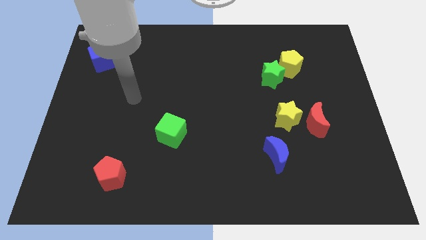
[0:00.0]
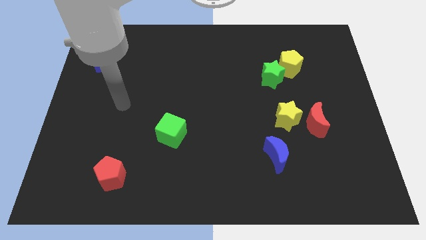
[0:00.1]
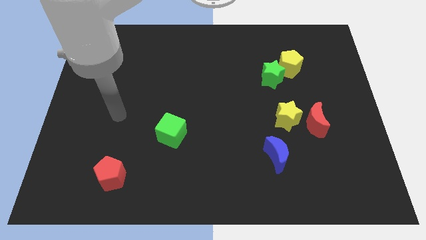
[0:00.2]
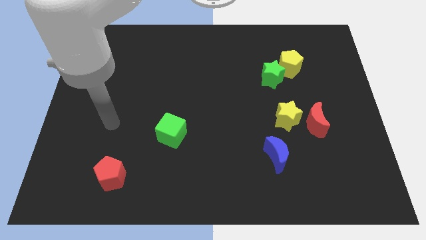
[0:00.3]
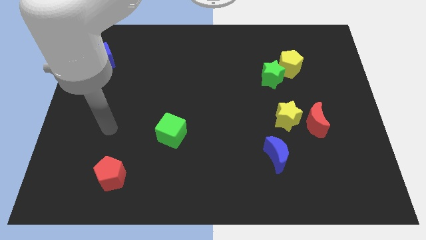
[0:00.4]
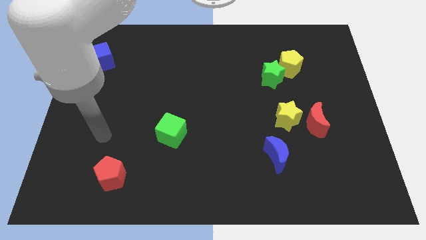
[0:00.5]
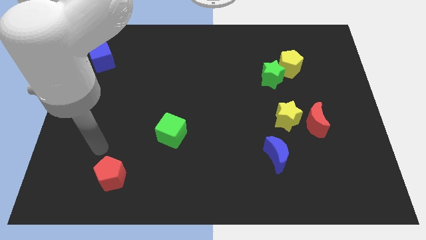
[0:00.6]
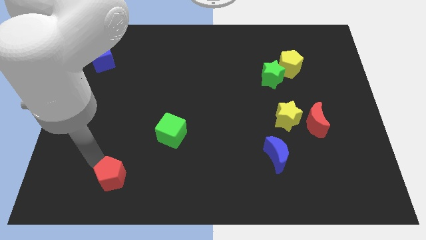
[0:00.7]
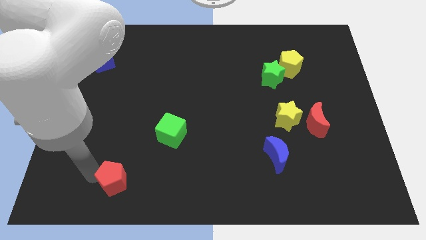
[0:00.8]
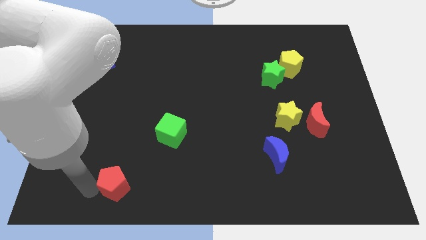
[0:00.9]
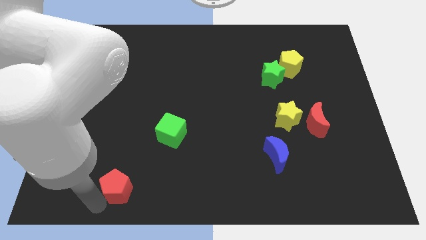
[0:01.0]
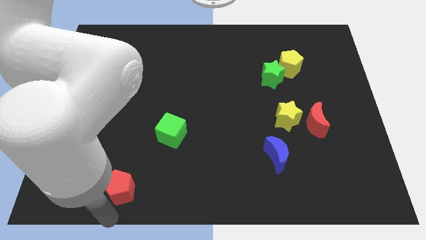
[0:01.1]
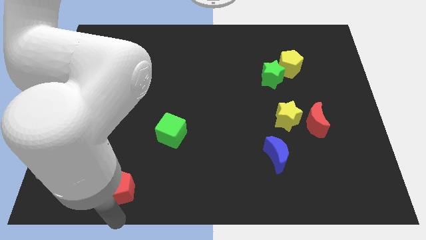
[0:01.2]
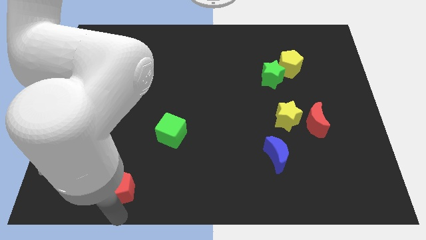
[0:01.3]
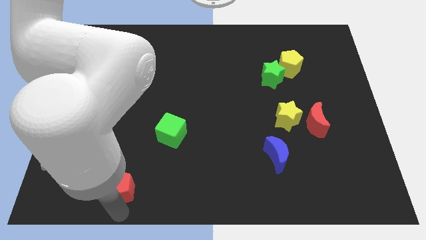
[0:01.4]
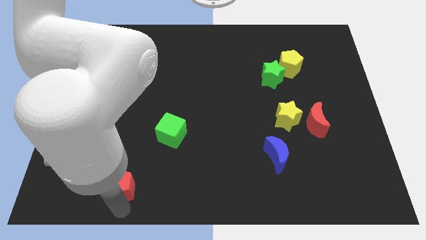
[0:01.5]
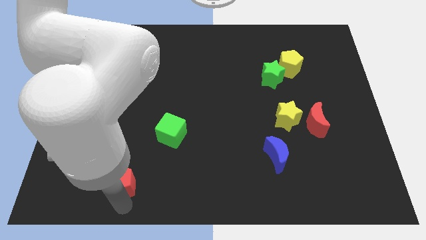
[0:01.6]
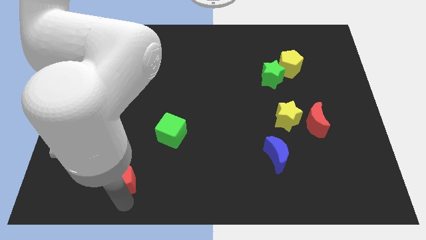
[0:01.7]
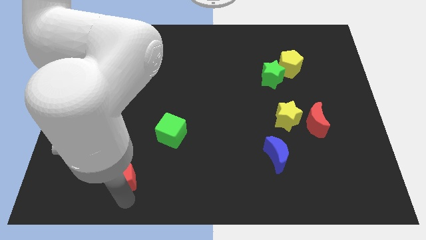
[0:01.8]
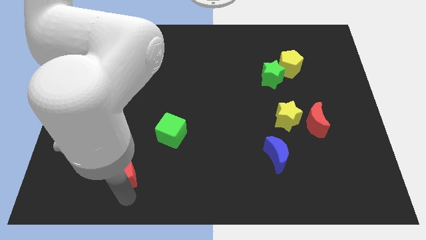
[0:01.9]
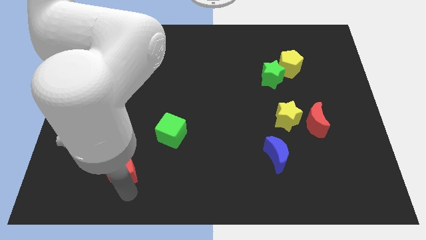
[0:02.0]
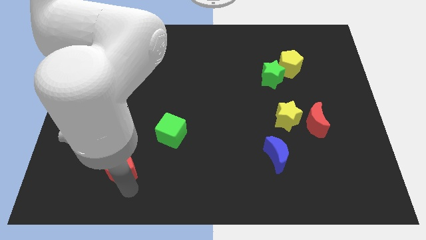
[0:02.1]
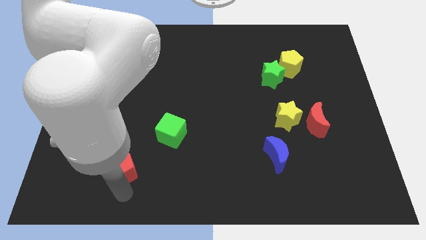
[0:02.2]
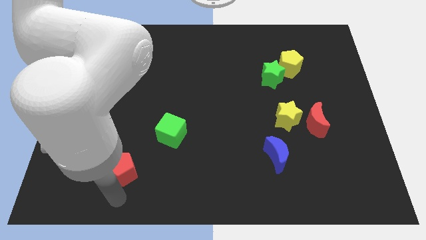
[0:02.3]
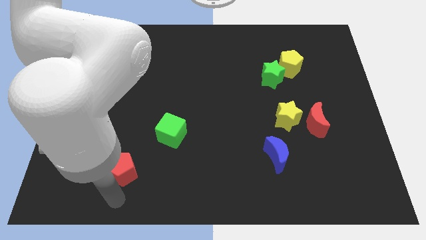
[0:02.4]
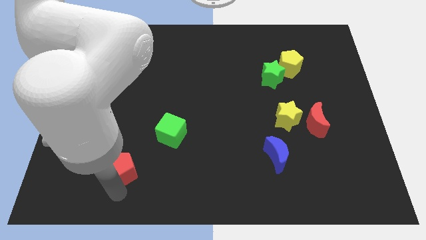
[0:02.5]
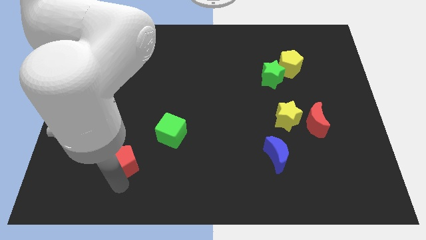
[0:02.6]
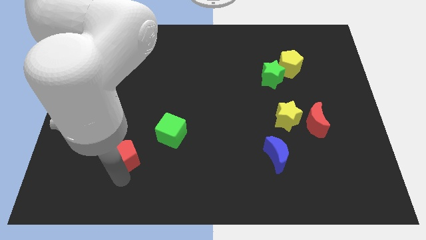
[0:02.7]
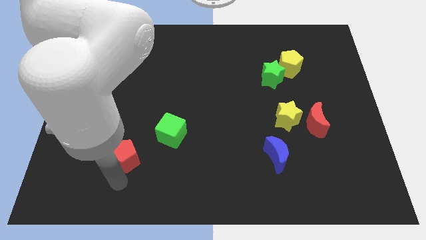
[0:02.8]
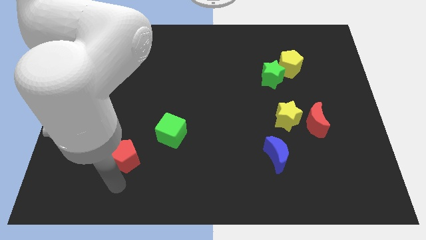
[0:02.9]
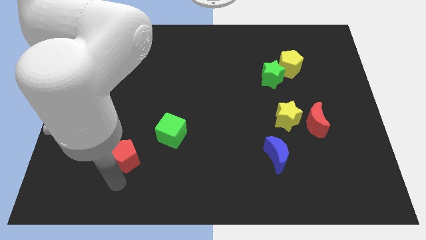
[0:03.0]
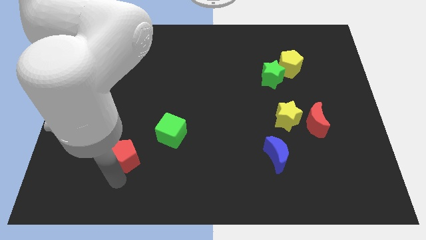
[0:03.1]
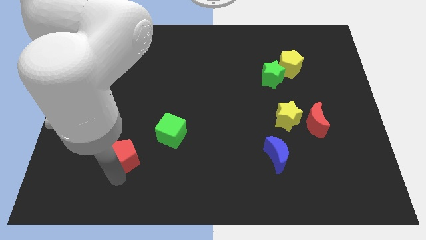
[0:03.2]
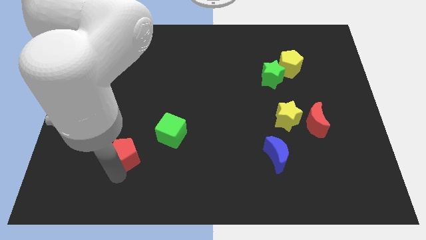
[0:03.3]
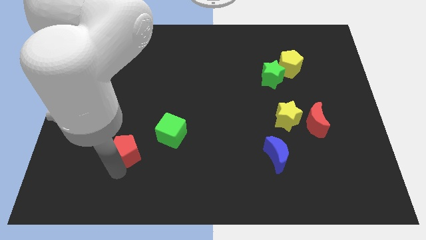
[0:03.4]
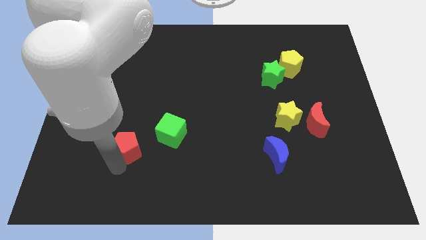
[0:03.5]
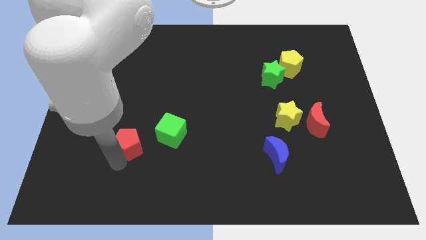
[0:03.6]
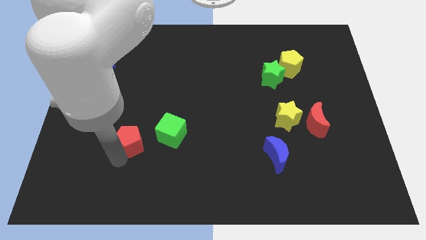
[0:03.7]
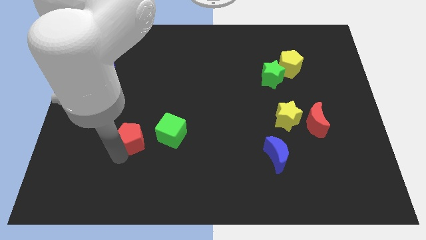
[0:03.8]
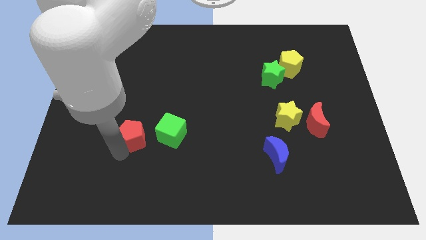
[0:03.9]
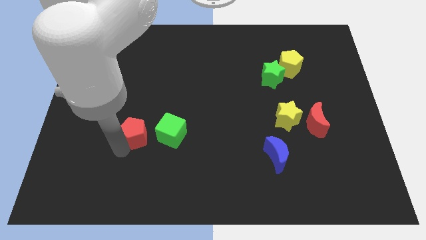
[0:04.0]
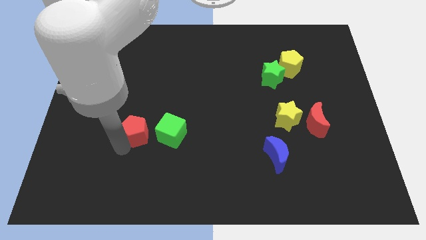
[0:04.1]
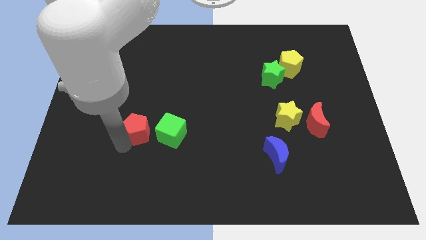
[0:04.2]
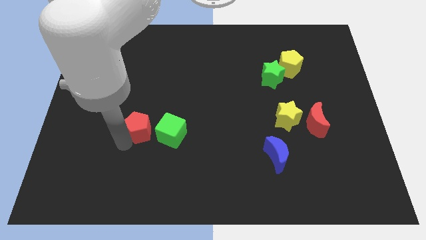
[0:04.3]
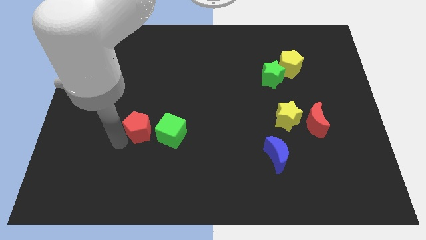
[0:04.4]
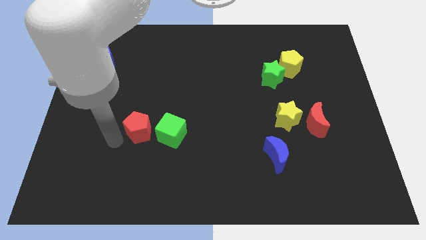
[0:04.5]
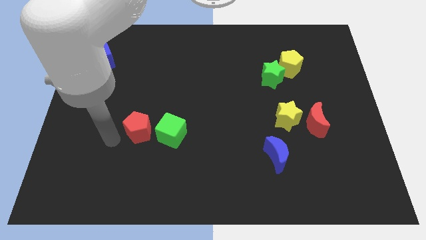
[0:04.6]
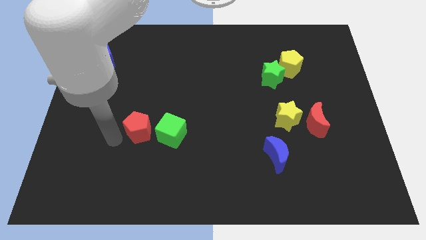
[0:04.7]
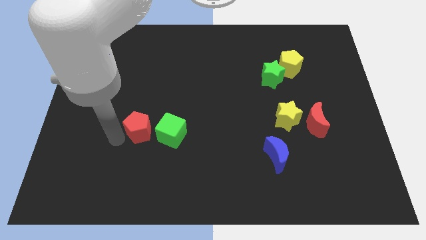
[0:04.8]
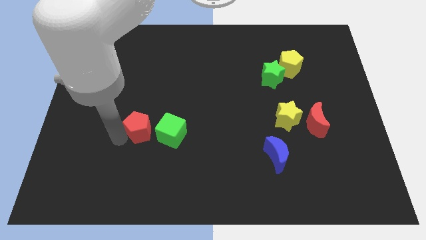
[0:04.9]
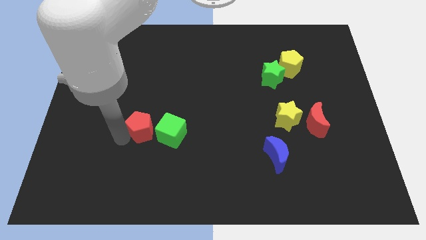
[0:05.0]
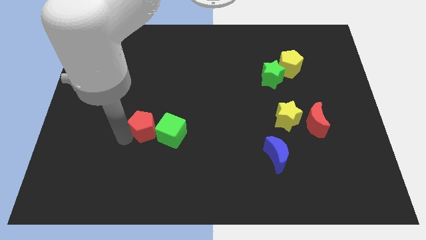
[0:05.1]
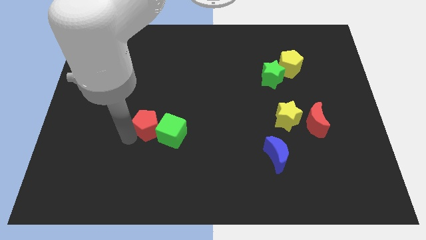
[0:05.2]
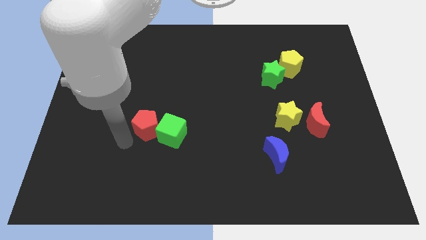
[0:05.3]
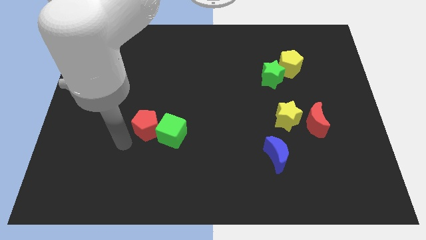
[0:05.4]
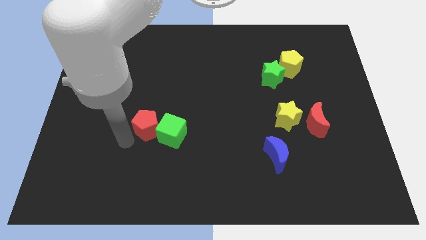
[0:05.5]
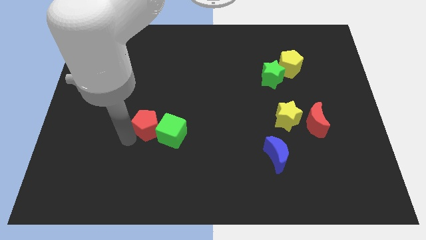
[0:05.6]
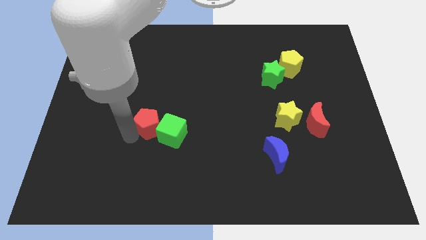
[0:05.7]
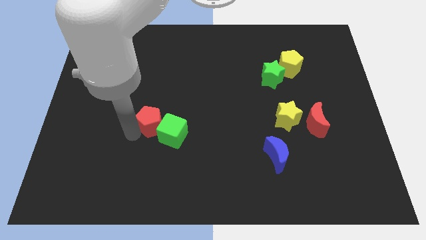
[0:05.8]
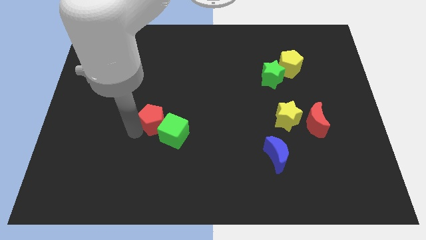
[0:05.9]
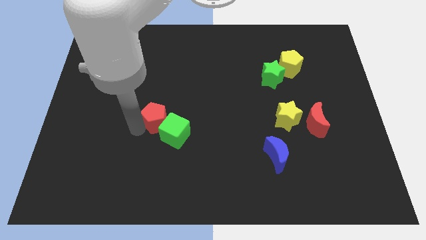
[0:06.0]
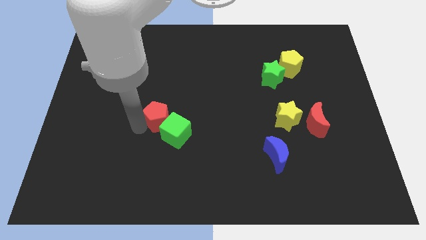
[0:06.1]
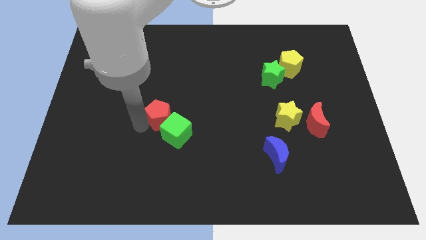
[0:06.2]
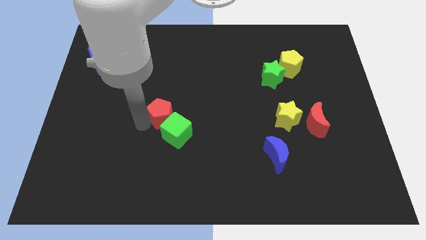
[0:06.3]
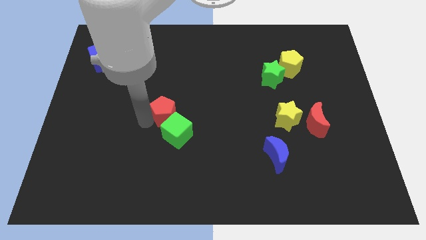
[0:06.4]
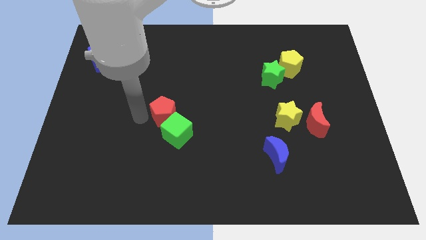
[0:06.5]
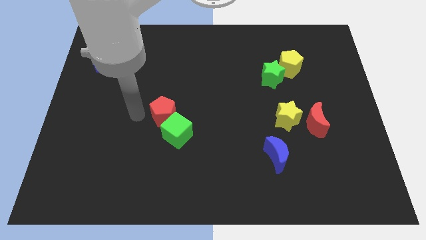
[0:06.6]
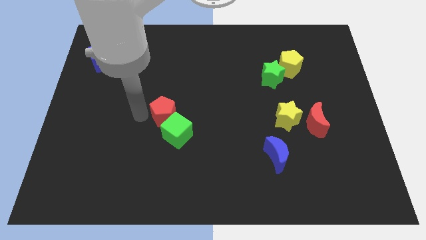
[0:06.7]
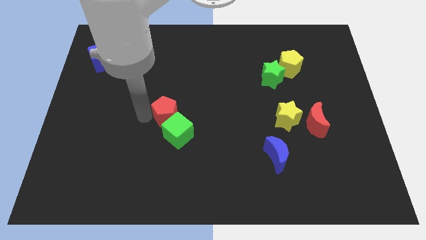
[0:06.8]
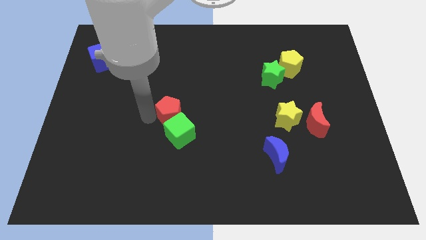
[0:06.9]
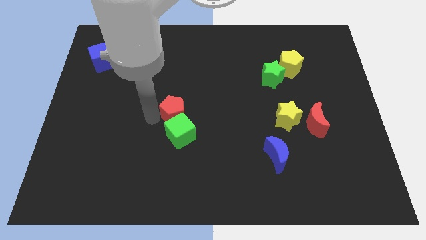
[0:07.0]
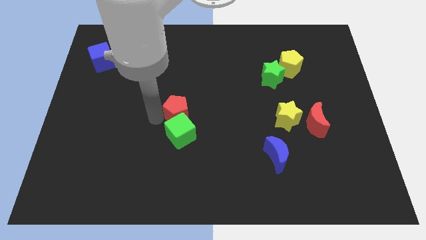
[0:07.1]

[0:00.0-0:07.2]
put the red pentagon to the top right of the green cube
